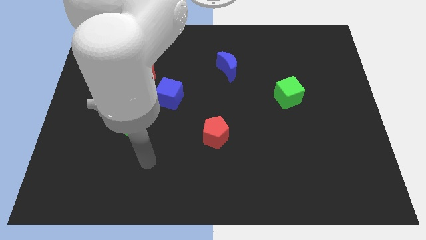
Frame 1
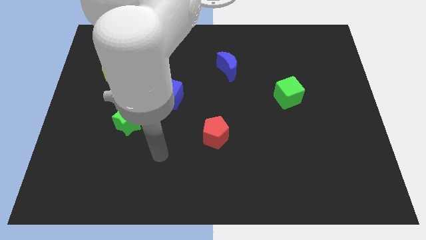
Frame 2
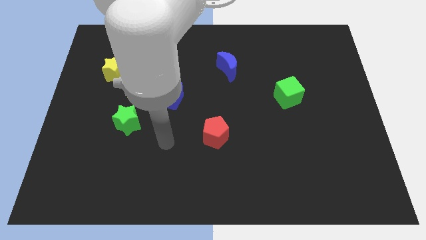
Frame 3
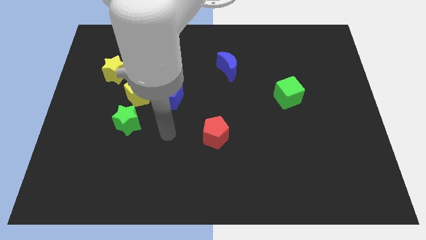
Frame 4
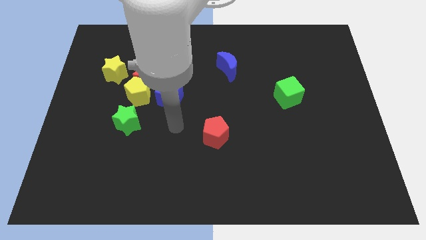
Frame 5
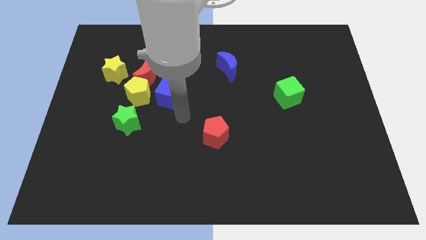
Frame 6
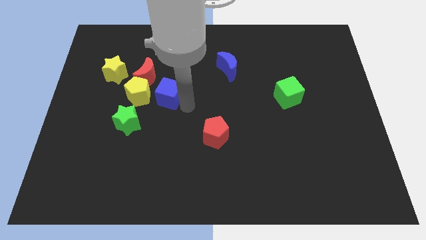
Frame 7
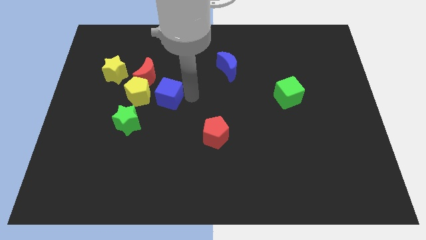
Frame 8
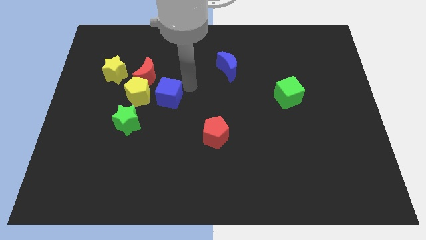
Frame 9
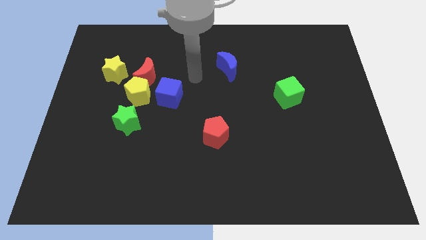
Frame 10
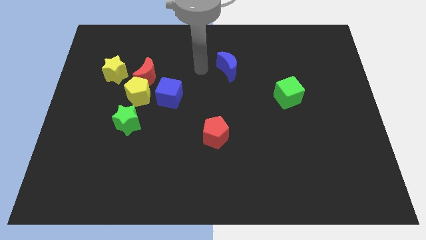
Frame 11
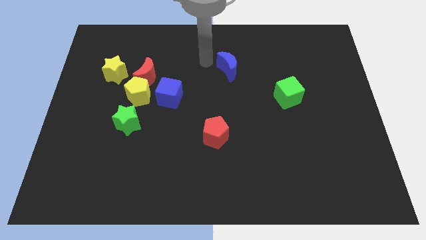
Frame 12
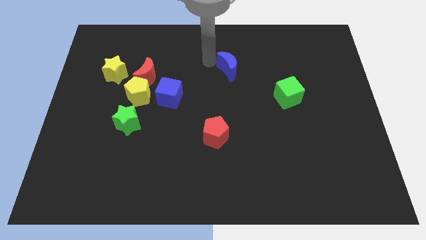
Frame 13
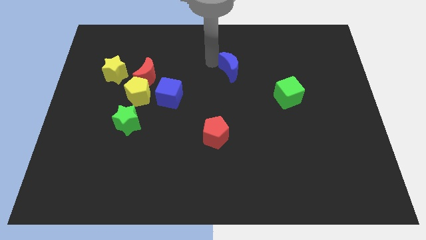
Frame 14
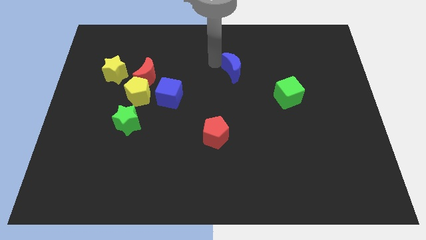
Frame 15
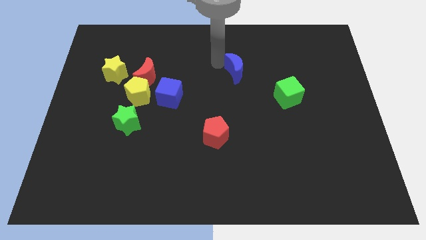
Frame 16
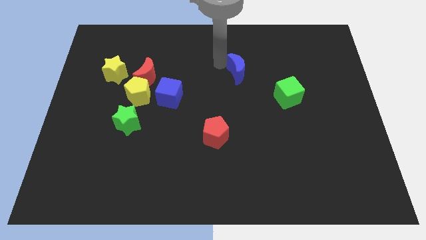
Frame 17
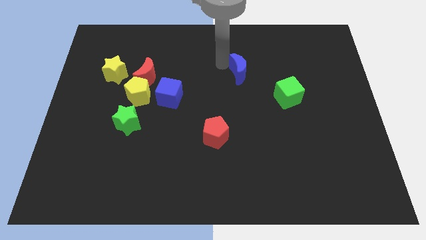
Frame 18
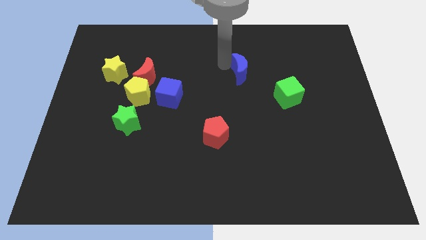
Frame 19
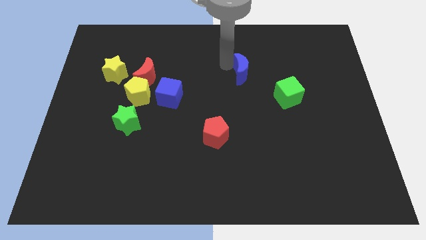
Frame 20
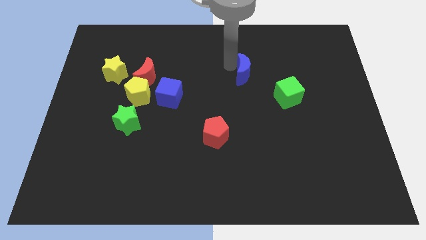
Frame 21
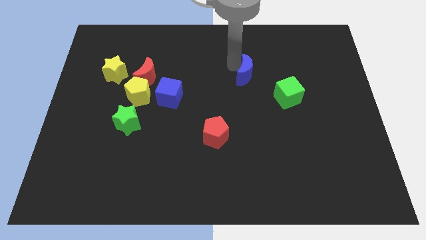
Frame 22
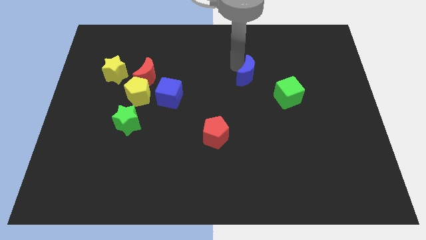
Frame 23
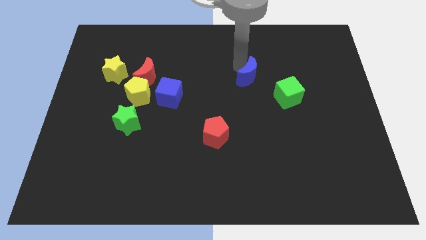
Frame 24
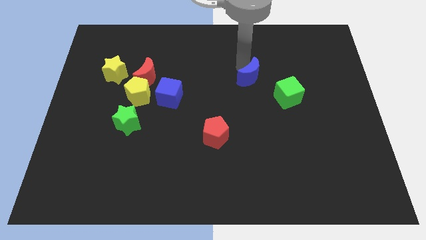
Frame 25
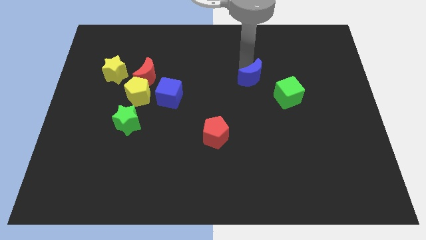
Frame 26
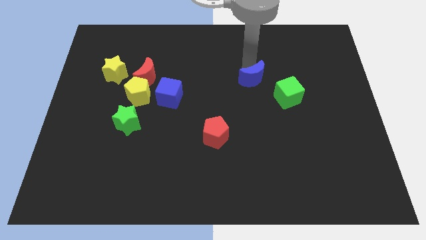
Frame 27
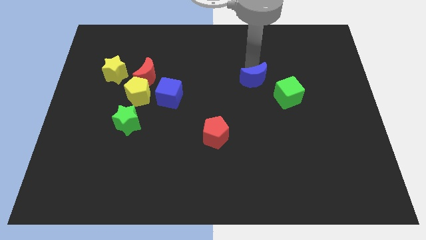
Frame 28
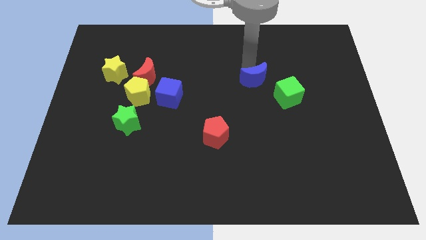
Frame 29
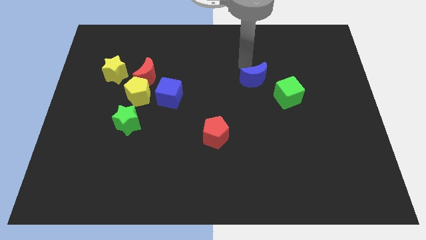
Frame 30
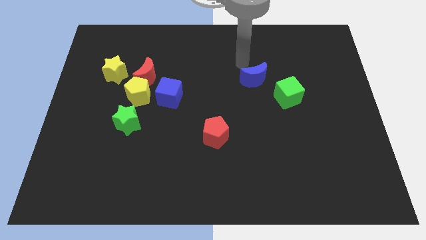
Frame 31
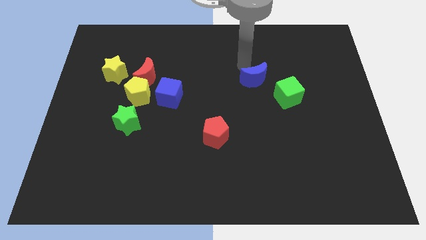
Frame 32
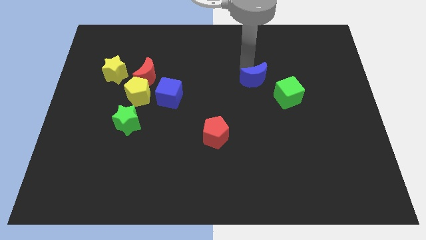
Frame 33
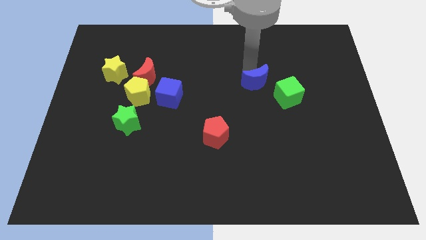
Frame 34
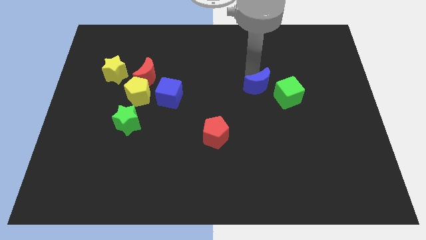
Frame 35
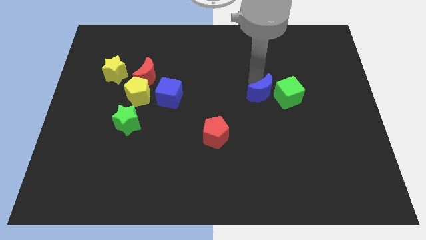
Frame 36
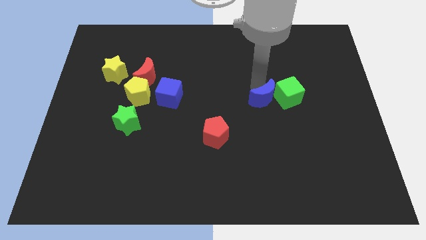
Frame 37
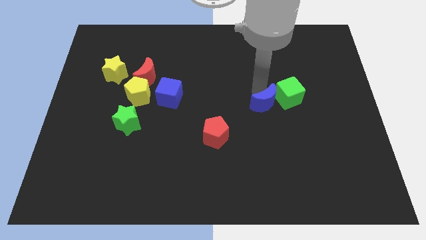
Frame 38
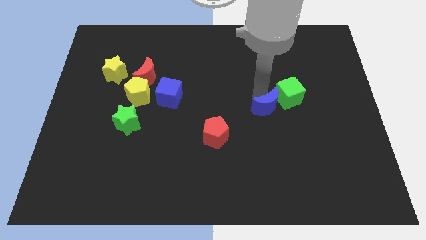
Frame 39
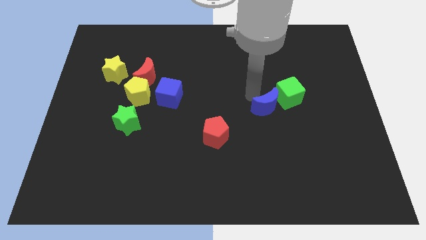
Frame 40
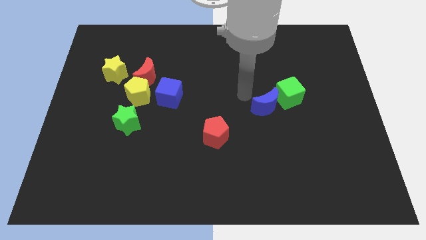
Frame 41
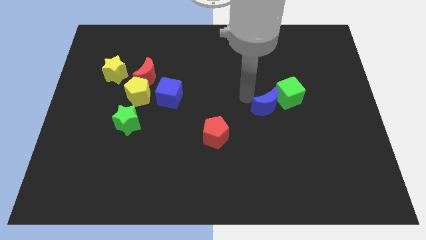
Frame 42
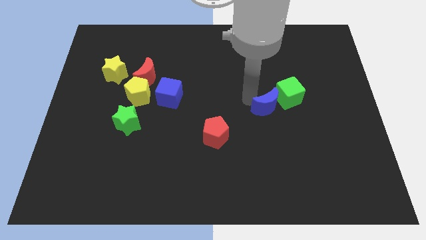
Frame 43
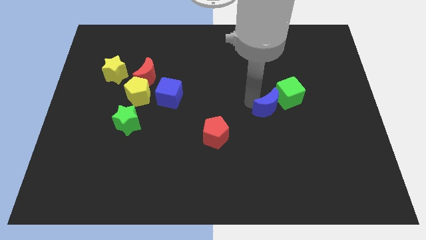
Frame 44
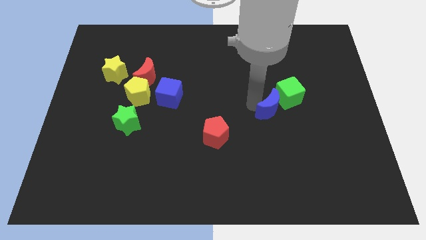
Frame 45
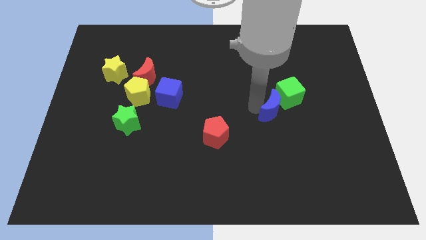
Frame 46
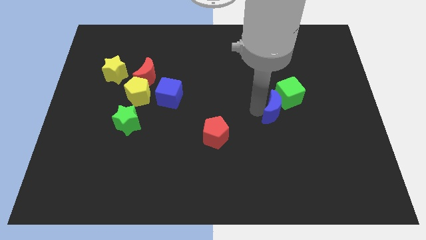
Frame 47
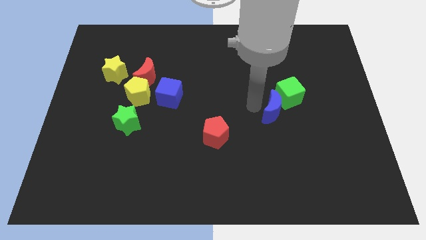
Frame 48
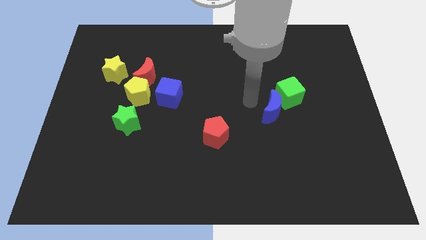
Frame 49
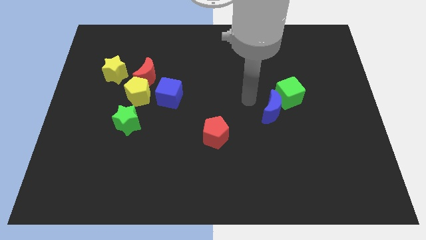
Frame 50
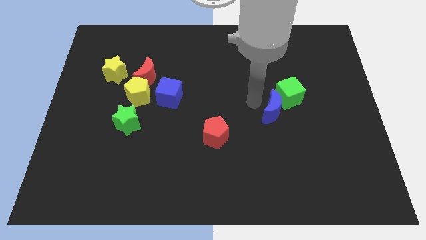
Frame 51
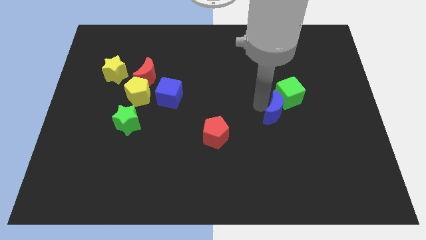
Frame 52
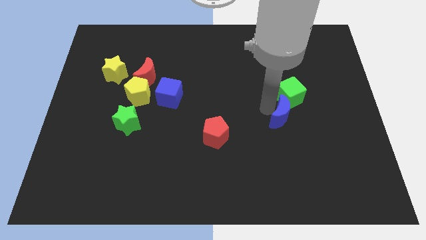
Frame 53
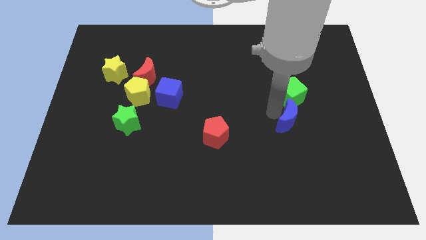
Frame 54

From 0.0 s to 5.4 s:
slide the blue moon downwards and then to the right

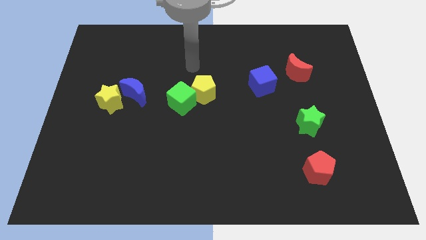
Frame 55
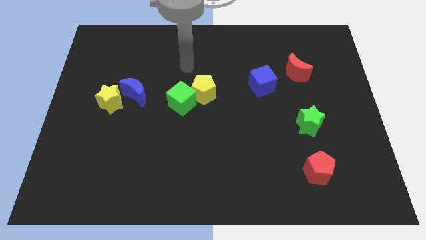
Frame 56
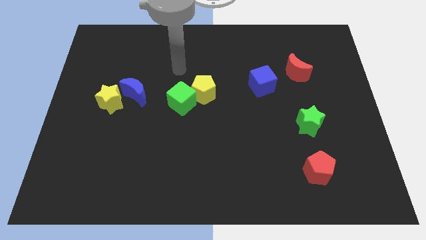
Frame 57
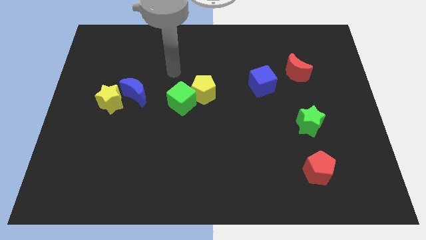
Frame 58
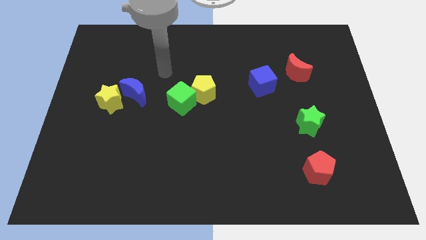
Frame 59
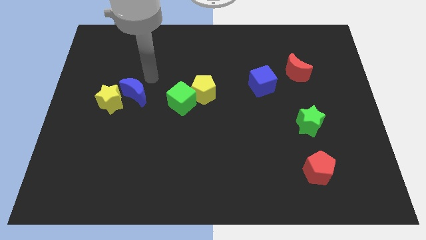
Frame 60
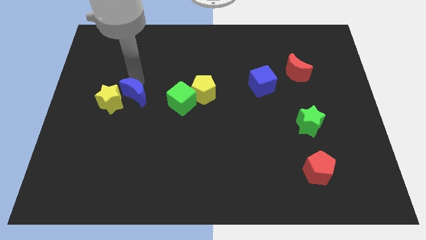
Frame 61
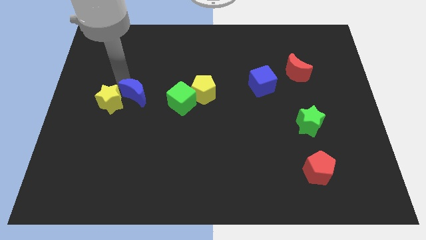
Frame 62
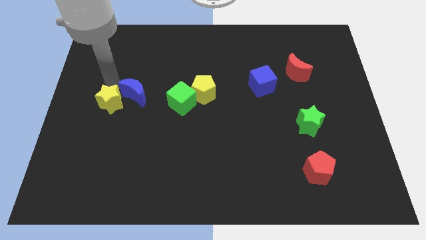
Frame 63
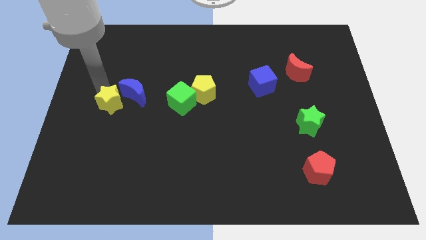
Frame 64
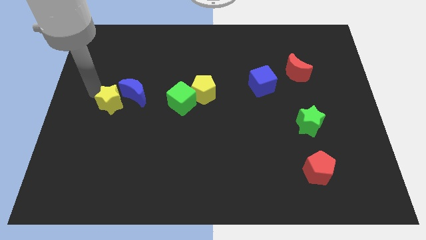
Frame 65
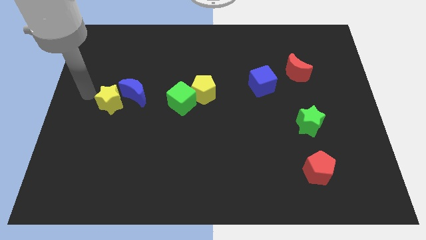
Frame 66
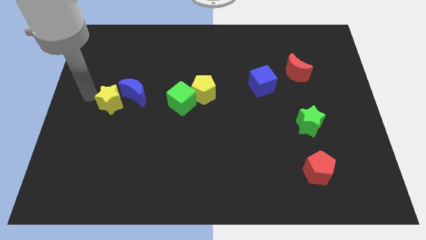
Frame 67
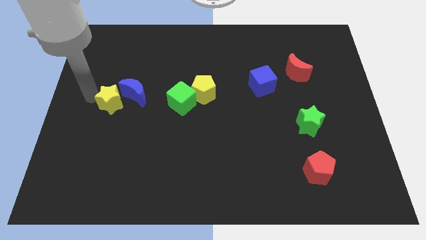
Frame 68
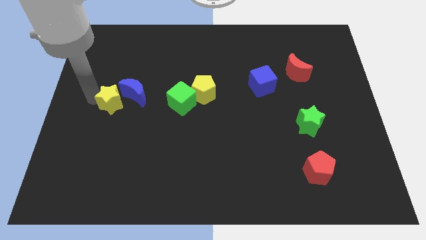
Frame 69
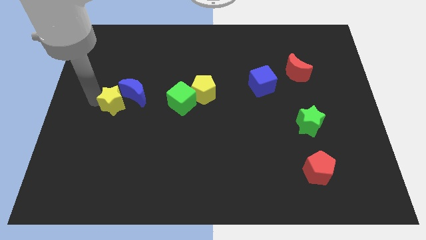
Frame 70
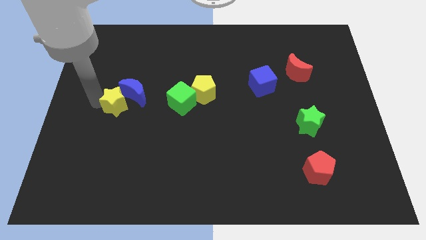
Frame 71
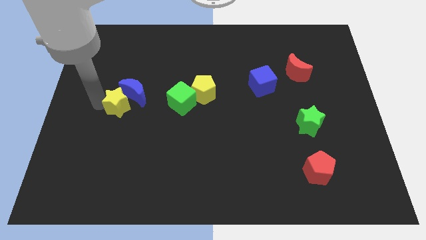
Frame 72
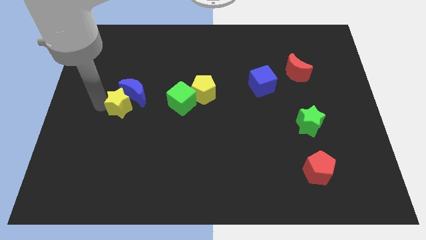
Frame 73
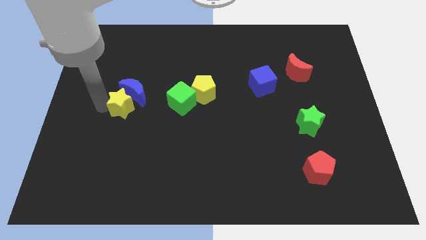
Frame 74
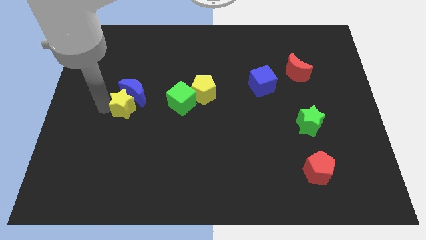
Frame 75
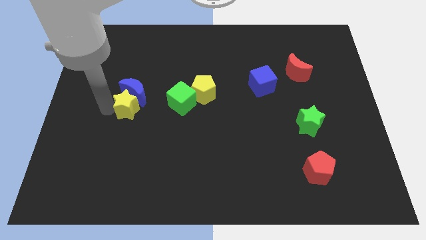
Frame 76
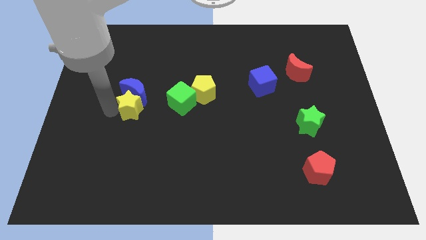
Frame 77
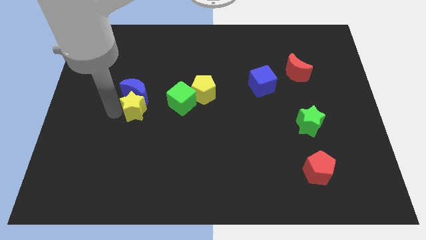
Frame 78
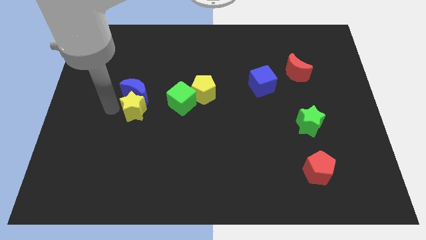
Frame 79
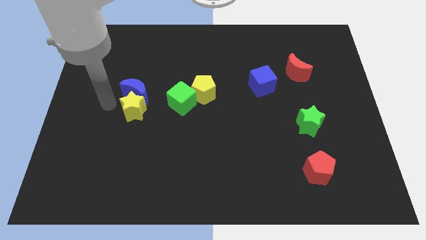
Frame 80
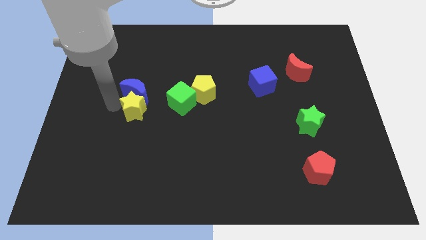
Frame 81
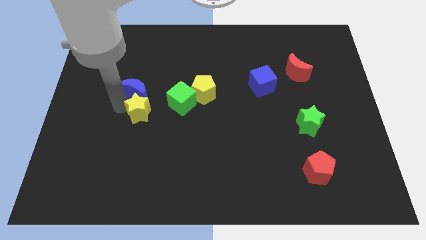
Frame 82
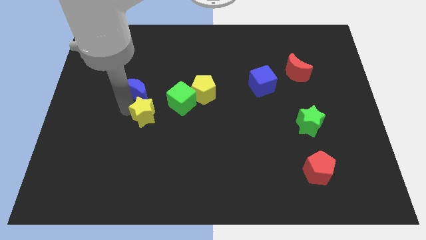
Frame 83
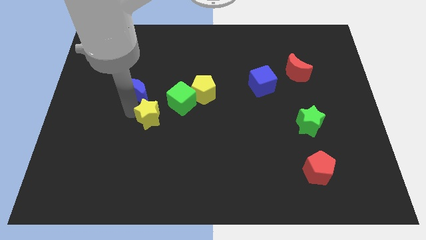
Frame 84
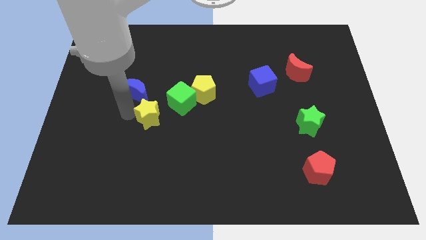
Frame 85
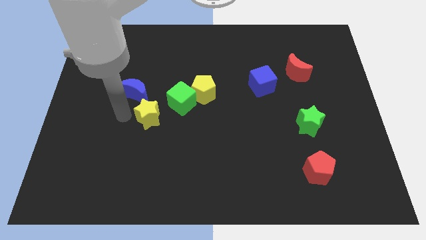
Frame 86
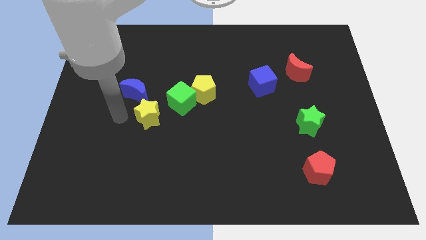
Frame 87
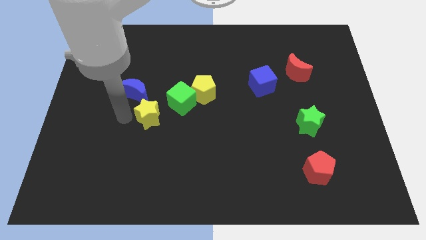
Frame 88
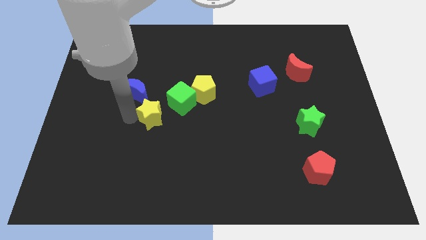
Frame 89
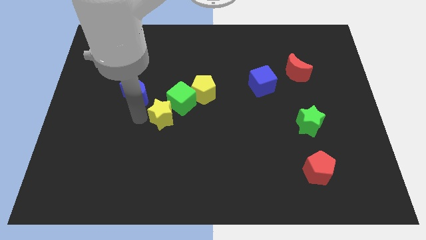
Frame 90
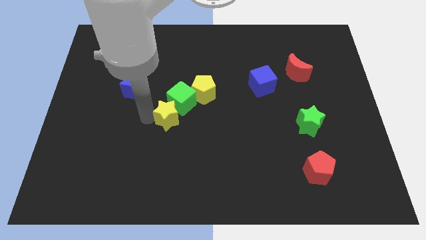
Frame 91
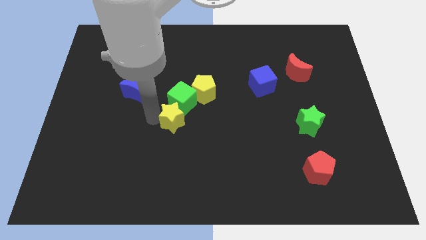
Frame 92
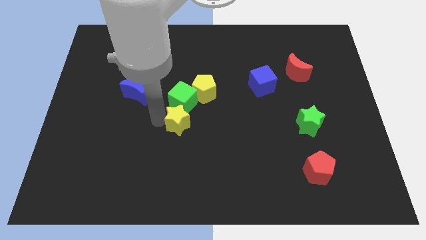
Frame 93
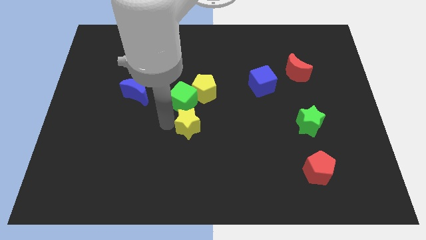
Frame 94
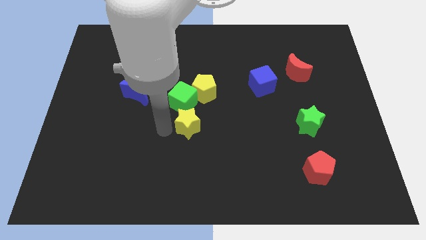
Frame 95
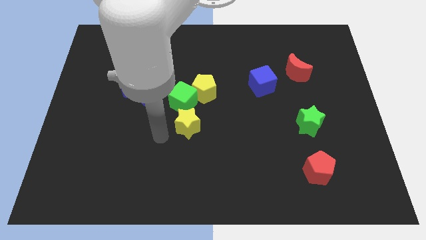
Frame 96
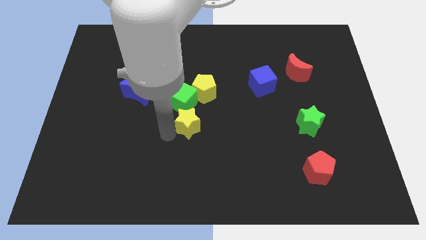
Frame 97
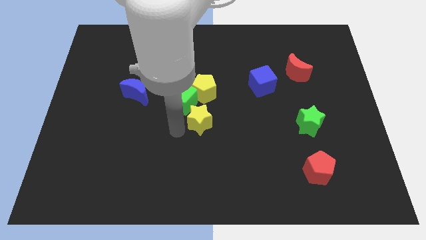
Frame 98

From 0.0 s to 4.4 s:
push the yellow star to the right
